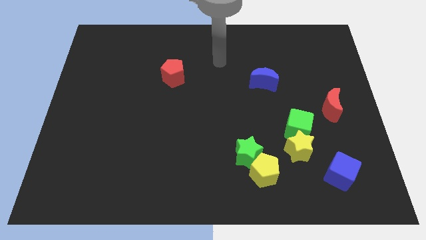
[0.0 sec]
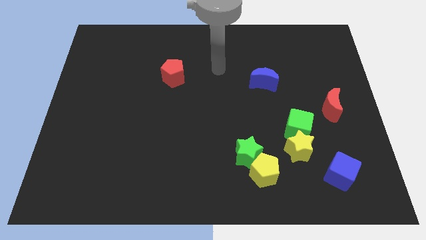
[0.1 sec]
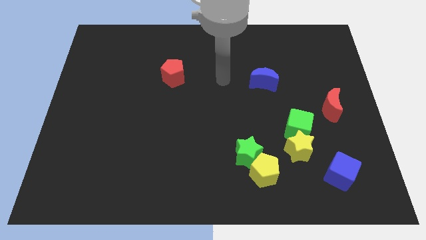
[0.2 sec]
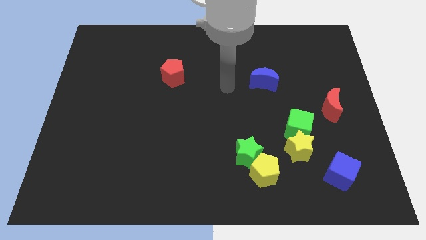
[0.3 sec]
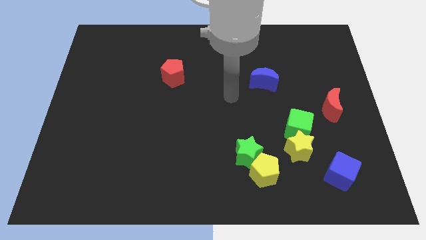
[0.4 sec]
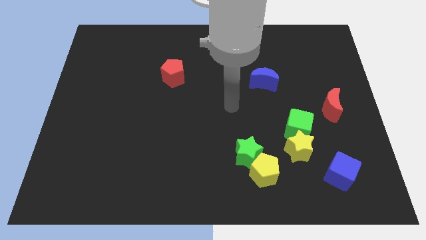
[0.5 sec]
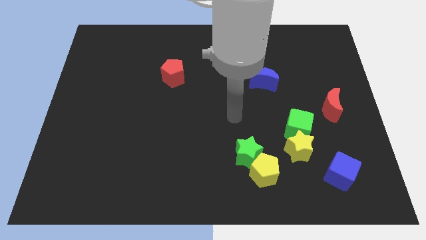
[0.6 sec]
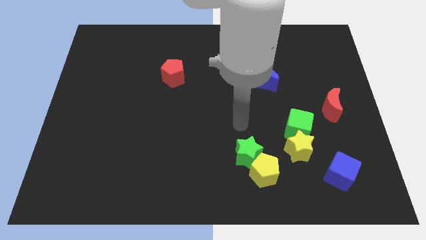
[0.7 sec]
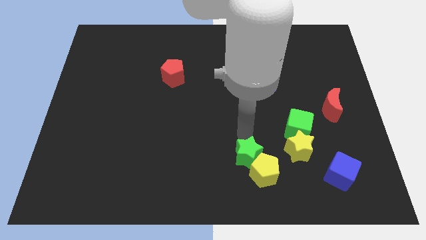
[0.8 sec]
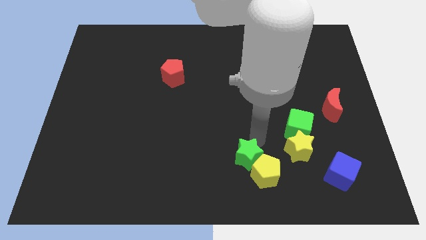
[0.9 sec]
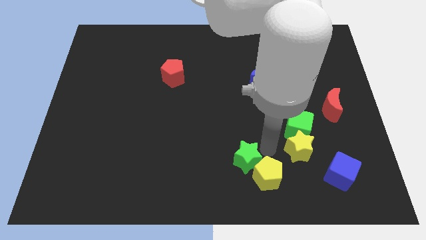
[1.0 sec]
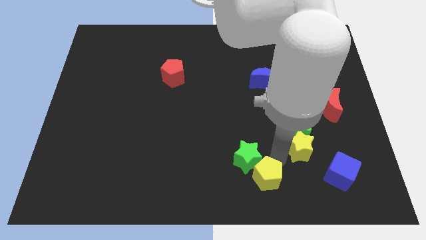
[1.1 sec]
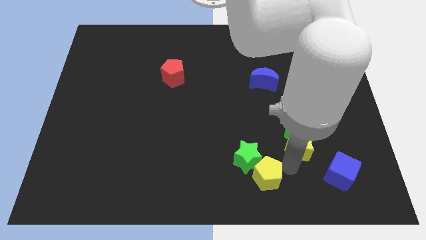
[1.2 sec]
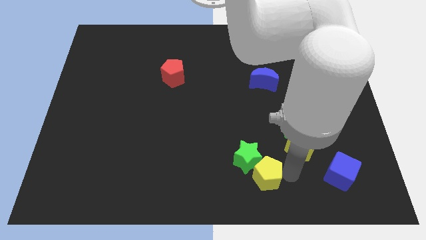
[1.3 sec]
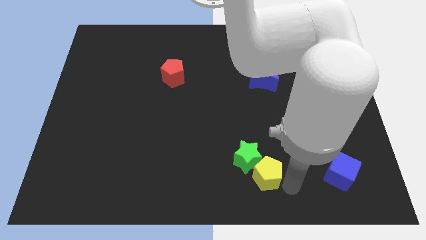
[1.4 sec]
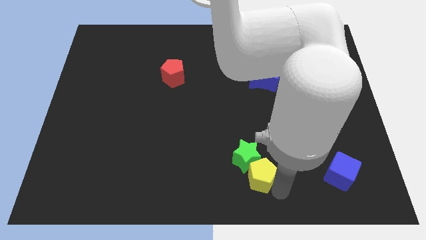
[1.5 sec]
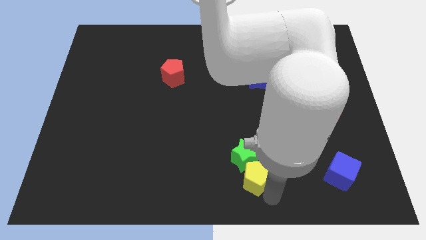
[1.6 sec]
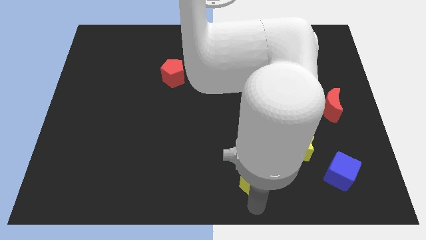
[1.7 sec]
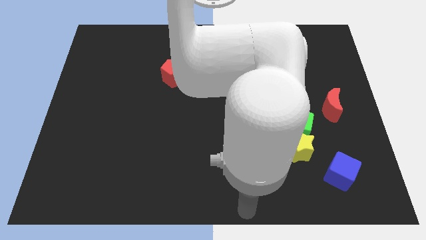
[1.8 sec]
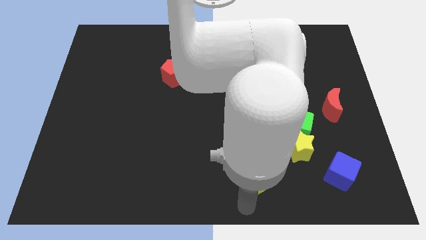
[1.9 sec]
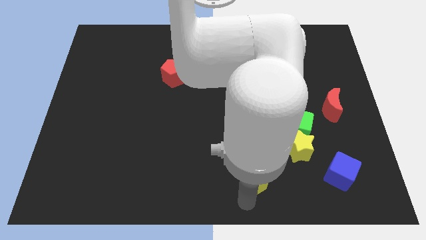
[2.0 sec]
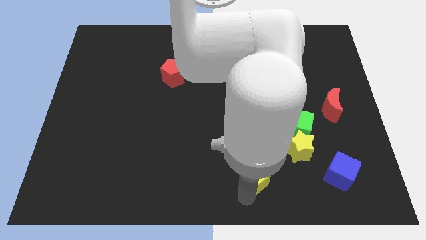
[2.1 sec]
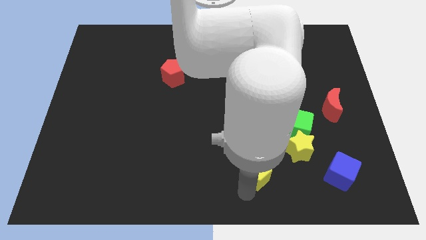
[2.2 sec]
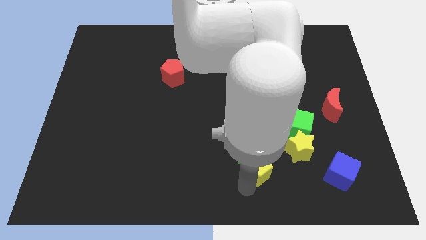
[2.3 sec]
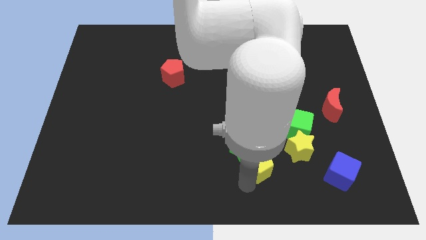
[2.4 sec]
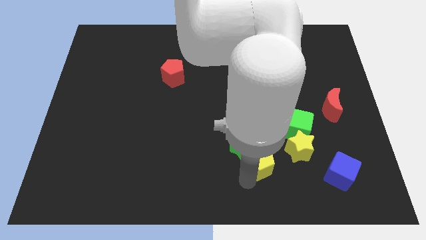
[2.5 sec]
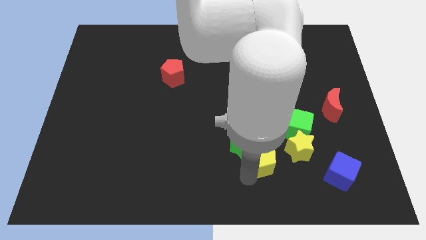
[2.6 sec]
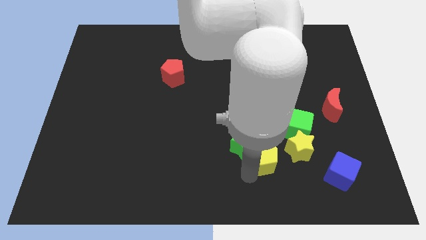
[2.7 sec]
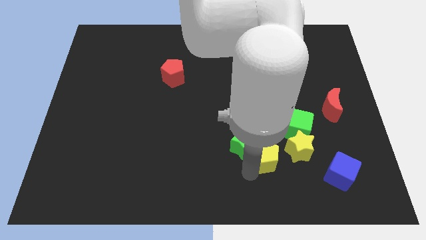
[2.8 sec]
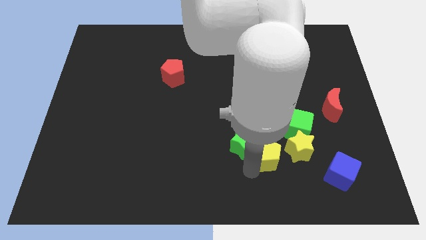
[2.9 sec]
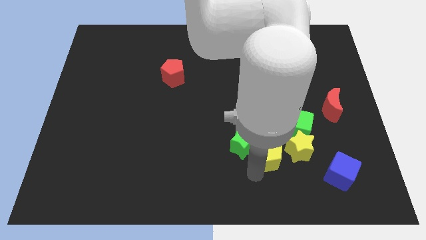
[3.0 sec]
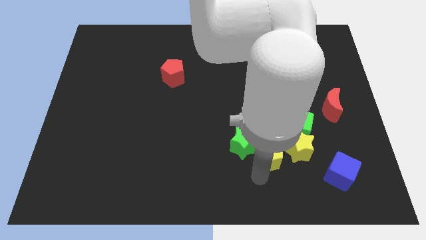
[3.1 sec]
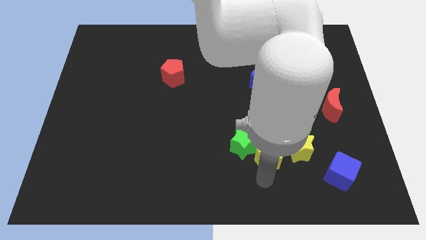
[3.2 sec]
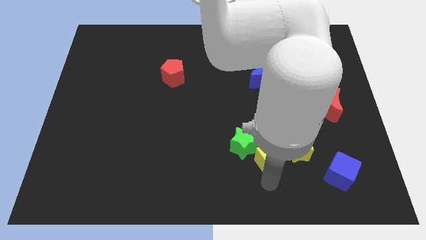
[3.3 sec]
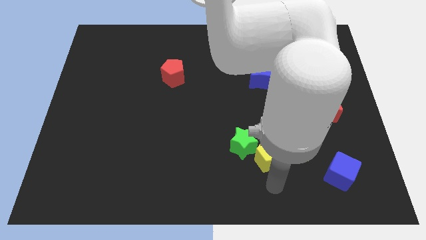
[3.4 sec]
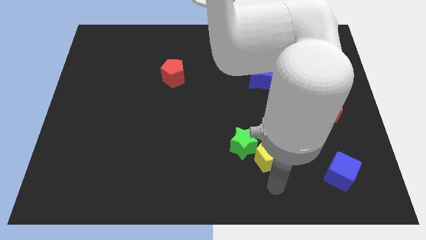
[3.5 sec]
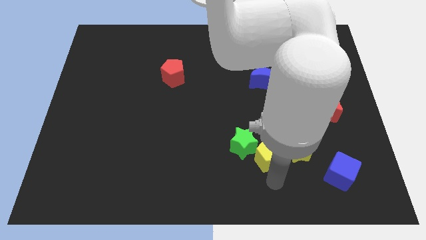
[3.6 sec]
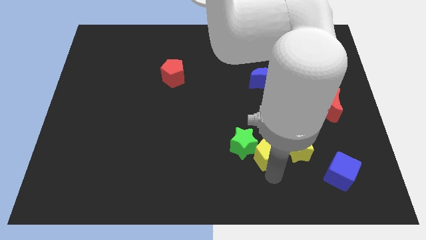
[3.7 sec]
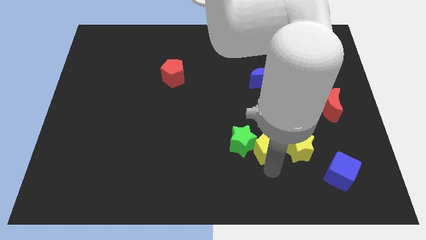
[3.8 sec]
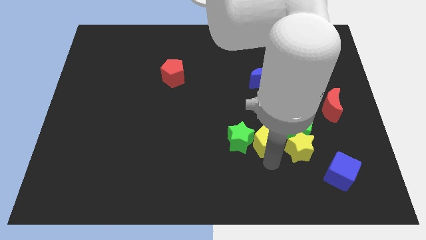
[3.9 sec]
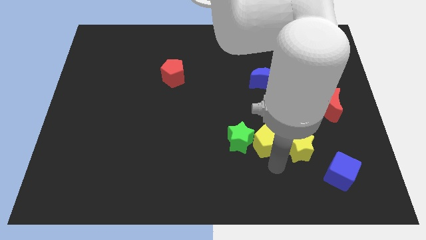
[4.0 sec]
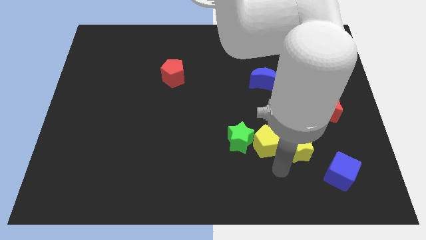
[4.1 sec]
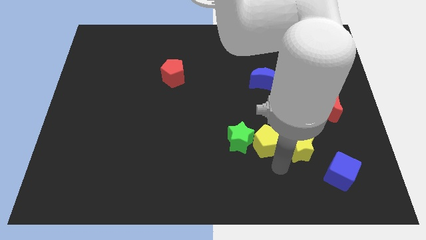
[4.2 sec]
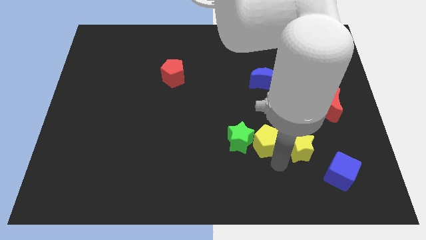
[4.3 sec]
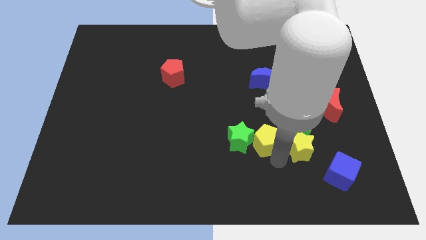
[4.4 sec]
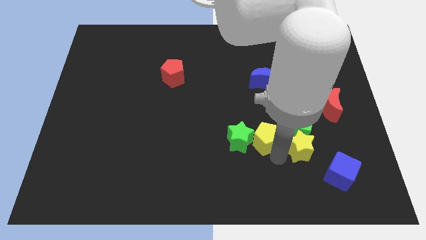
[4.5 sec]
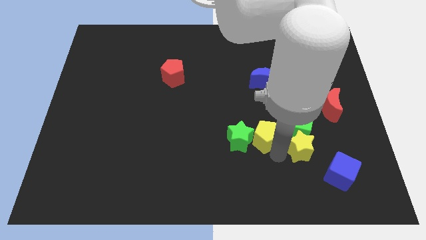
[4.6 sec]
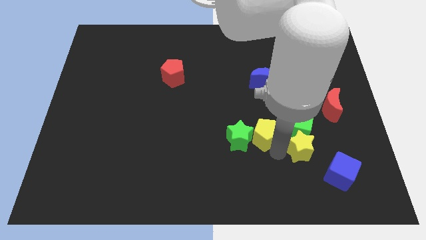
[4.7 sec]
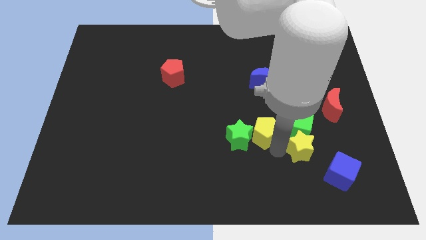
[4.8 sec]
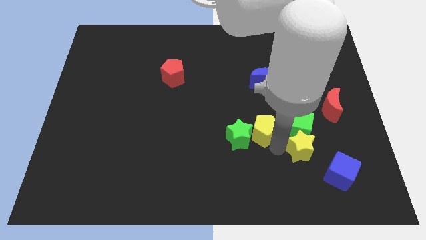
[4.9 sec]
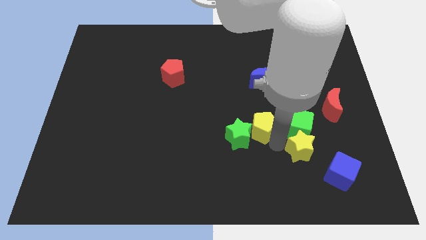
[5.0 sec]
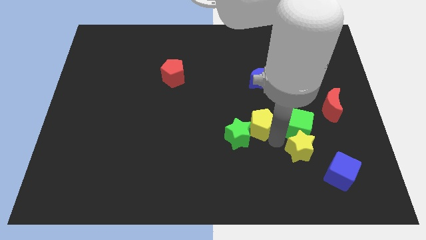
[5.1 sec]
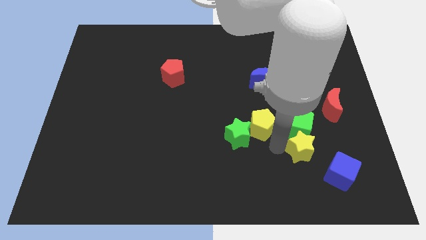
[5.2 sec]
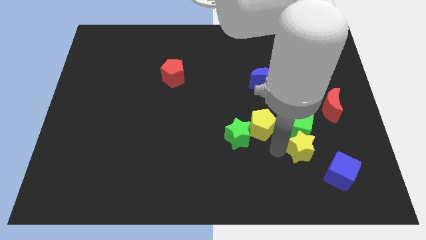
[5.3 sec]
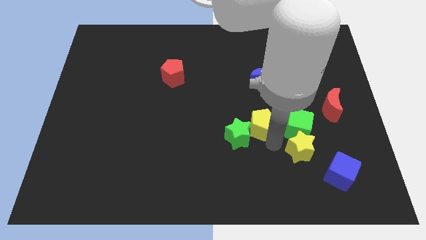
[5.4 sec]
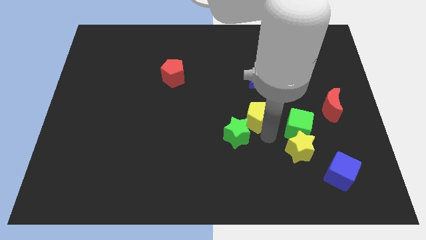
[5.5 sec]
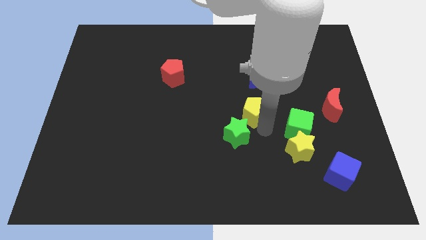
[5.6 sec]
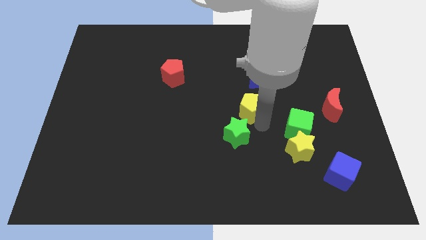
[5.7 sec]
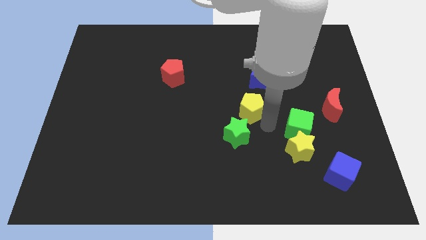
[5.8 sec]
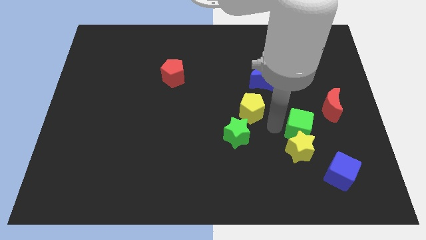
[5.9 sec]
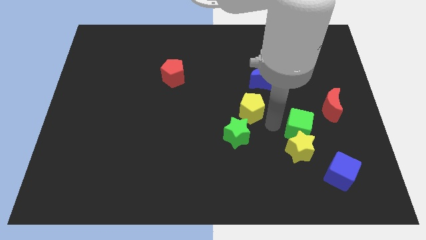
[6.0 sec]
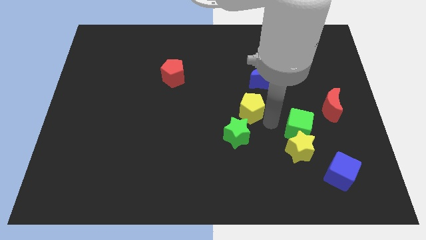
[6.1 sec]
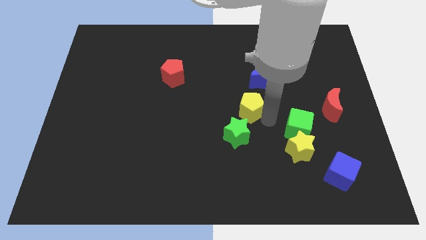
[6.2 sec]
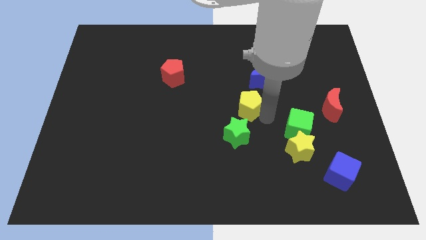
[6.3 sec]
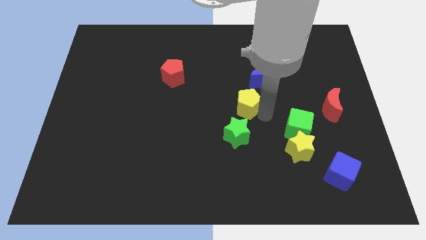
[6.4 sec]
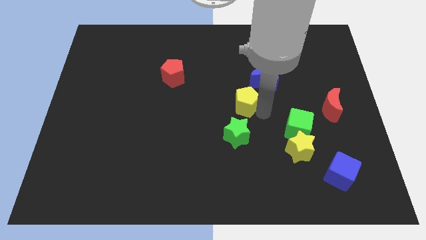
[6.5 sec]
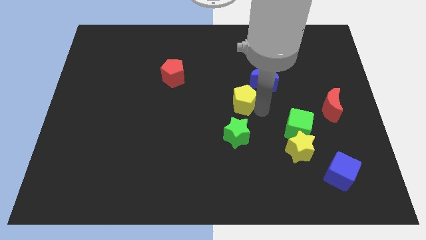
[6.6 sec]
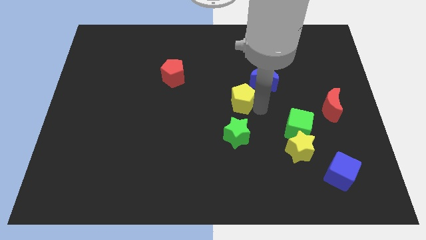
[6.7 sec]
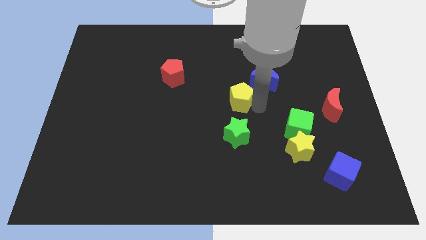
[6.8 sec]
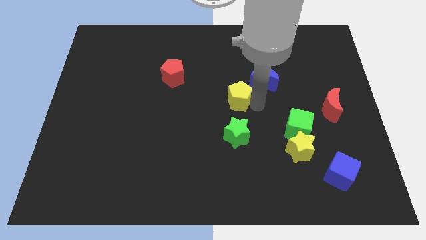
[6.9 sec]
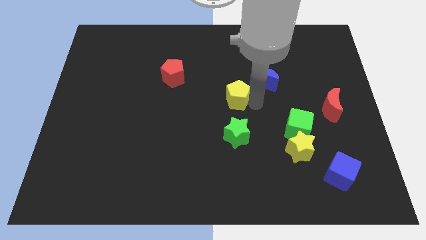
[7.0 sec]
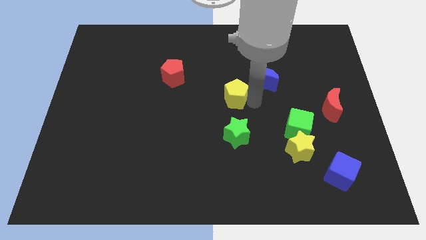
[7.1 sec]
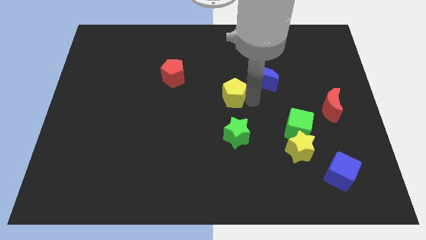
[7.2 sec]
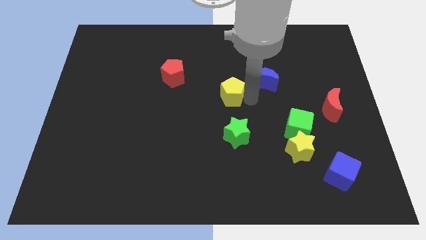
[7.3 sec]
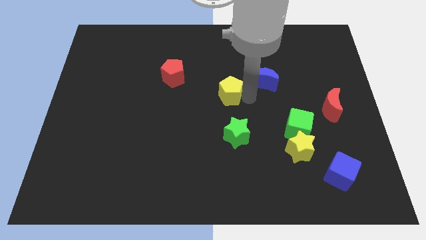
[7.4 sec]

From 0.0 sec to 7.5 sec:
push the yellow pentagon up

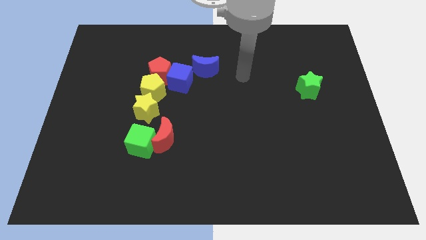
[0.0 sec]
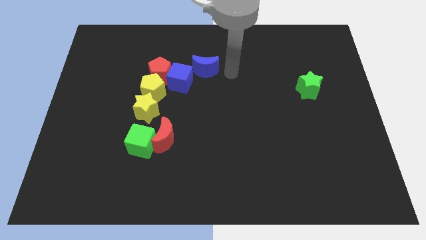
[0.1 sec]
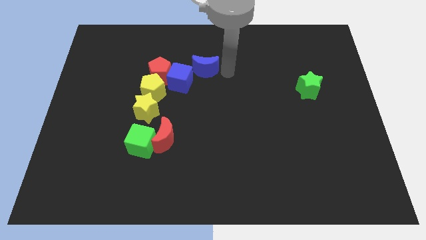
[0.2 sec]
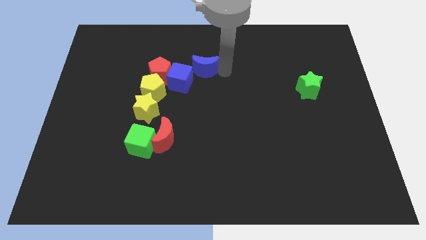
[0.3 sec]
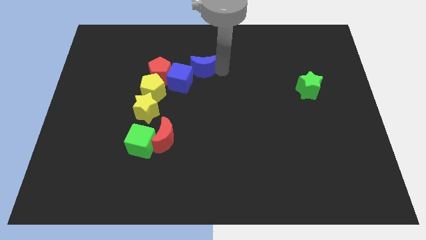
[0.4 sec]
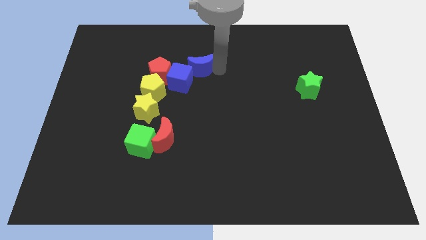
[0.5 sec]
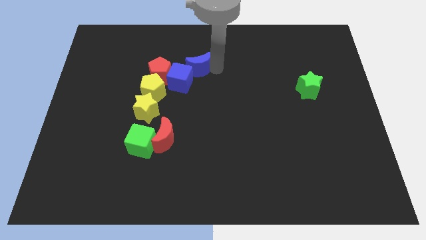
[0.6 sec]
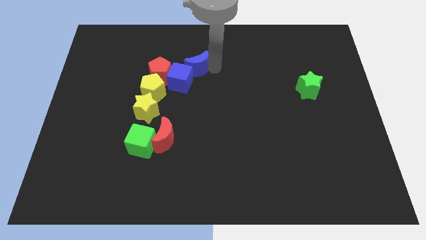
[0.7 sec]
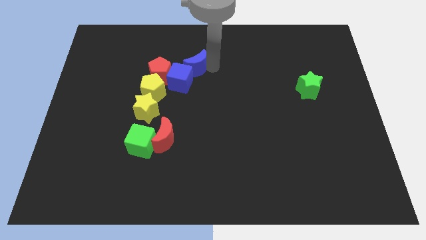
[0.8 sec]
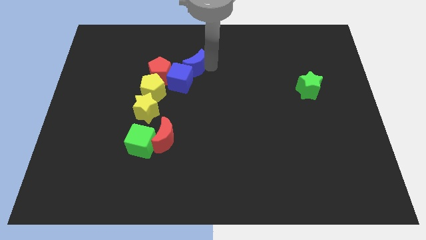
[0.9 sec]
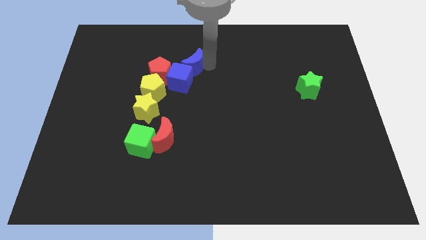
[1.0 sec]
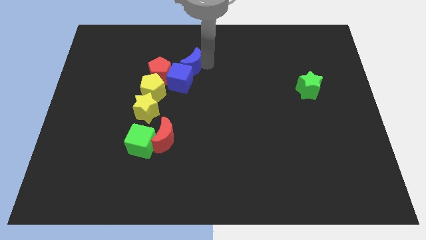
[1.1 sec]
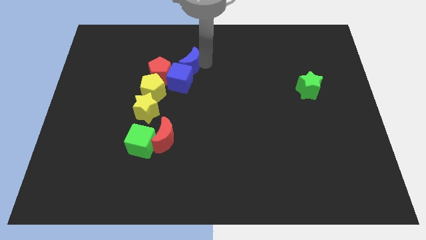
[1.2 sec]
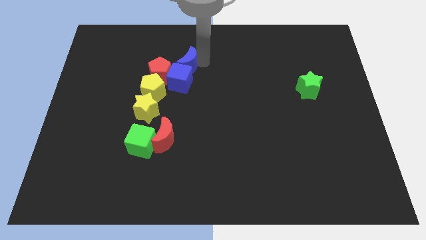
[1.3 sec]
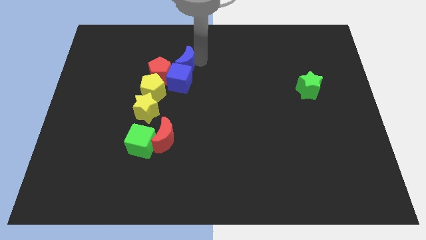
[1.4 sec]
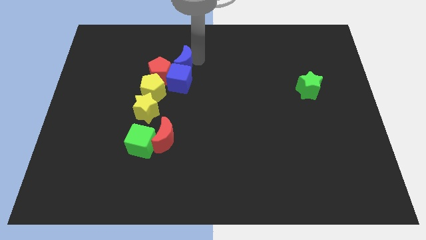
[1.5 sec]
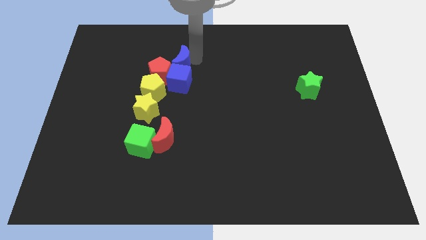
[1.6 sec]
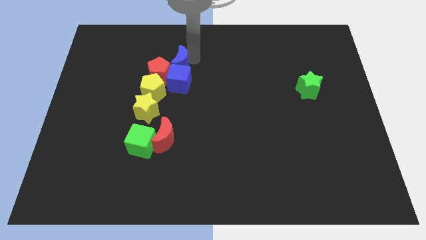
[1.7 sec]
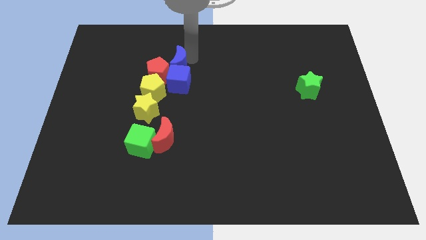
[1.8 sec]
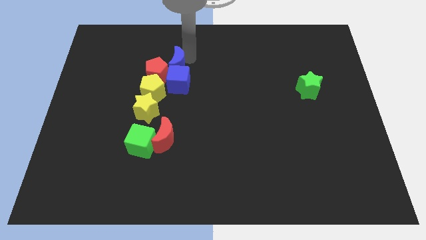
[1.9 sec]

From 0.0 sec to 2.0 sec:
move the blue moon to the left a little bit
